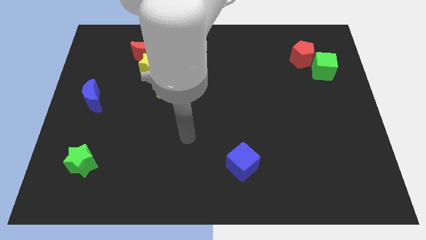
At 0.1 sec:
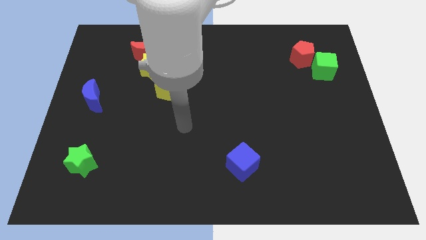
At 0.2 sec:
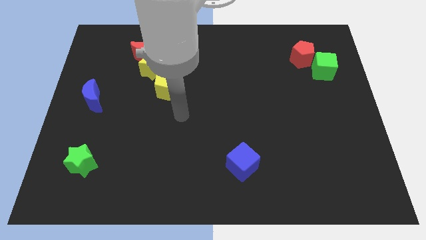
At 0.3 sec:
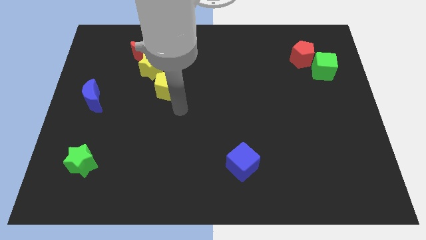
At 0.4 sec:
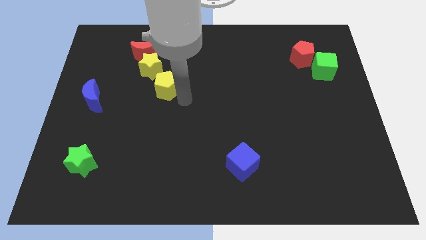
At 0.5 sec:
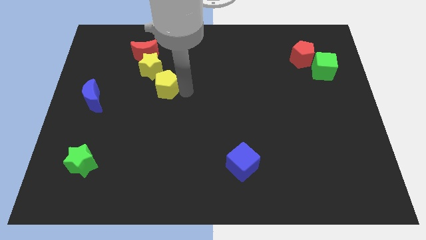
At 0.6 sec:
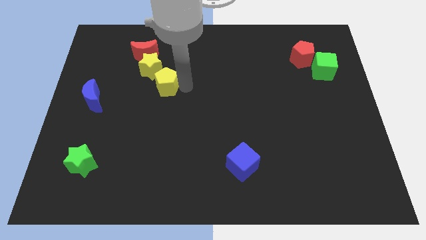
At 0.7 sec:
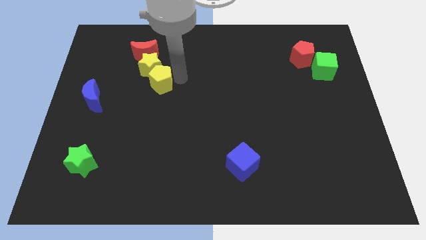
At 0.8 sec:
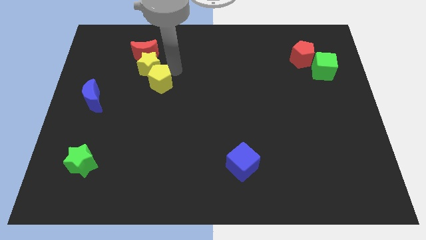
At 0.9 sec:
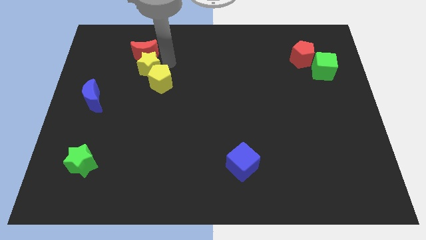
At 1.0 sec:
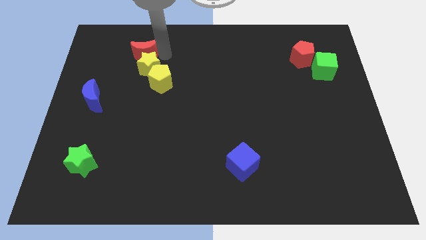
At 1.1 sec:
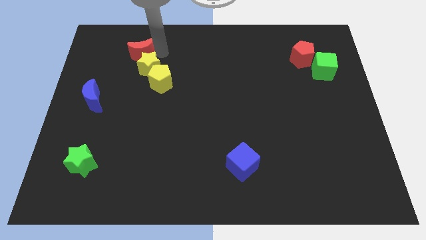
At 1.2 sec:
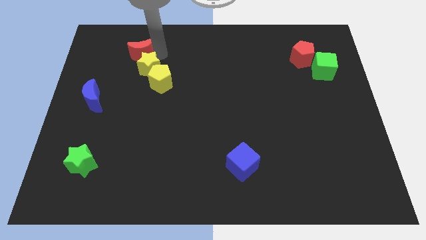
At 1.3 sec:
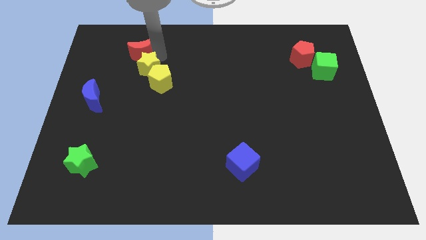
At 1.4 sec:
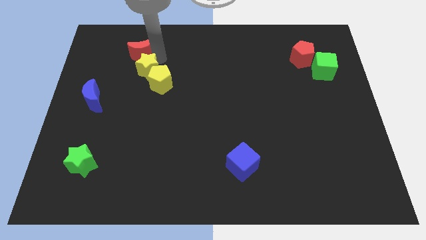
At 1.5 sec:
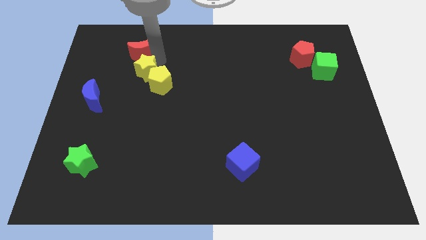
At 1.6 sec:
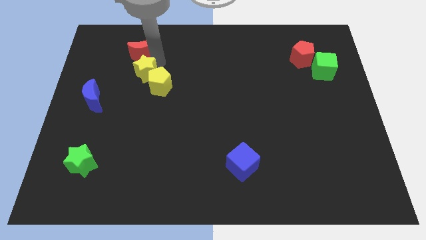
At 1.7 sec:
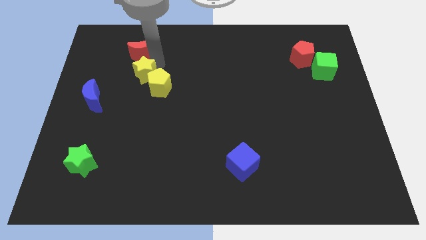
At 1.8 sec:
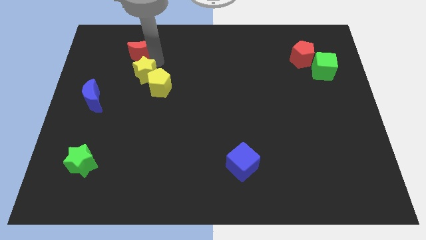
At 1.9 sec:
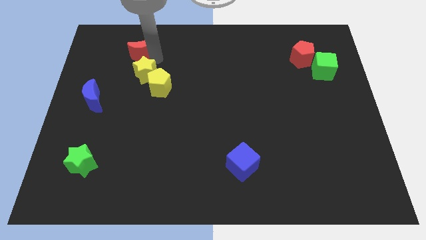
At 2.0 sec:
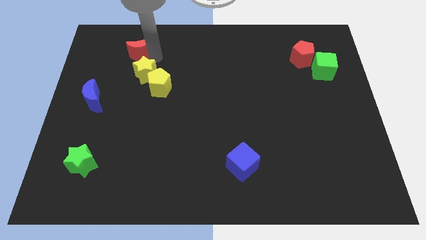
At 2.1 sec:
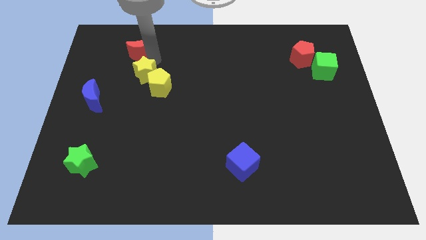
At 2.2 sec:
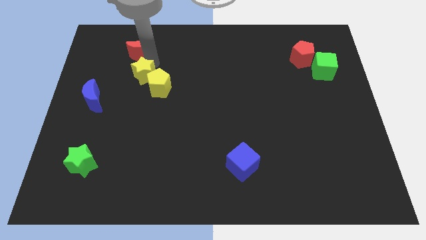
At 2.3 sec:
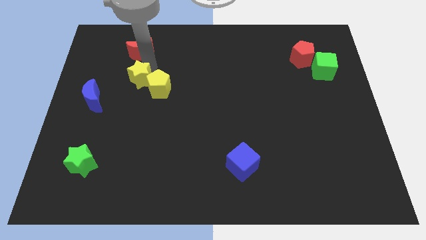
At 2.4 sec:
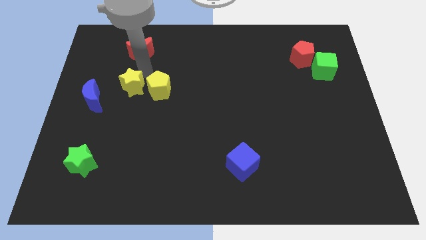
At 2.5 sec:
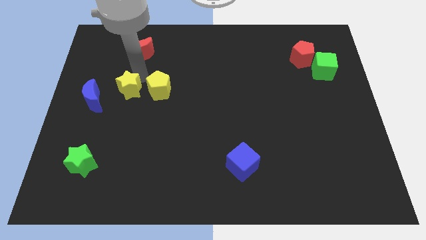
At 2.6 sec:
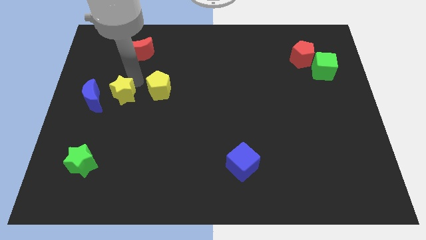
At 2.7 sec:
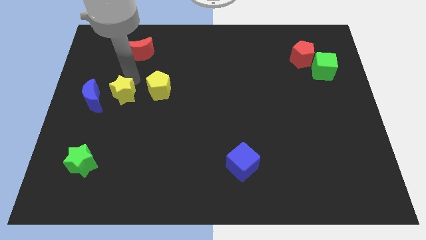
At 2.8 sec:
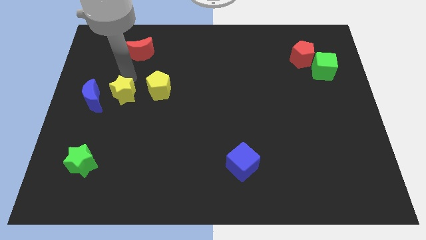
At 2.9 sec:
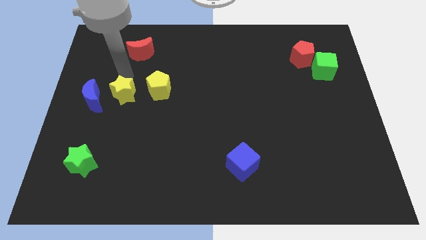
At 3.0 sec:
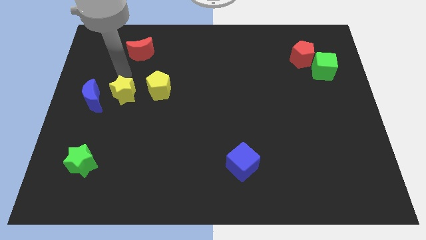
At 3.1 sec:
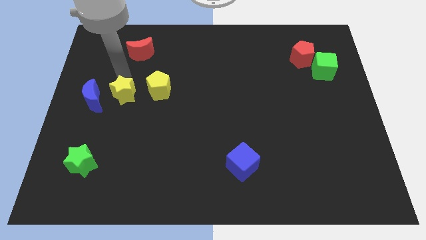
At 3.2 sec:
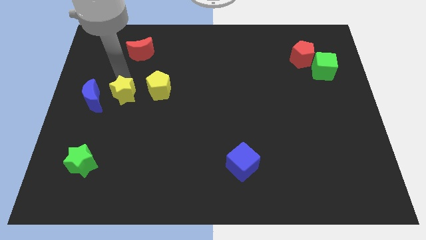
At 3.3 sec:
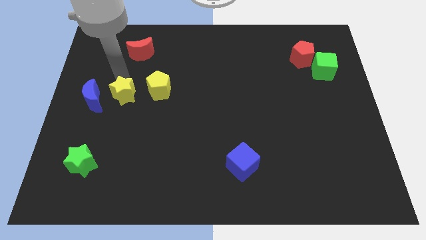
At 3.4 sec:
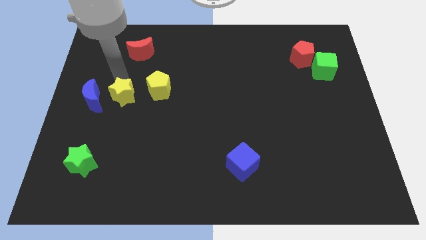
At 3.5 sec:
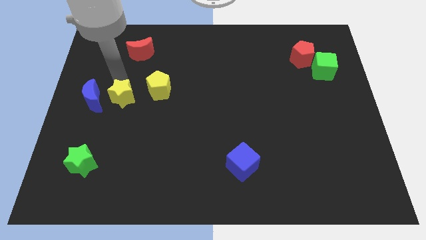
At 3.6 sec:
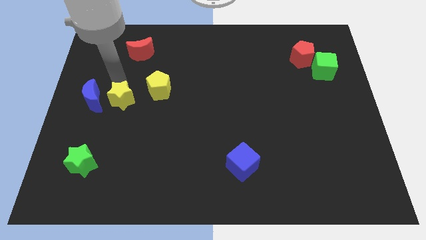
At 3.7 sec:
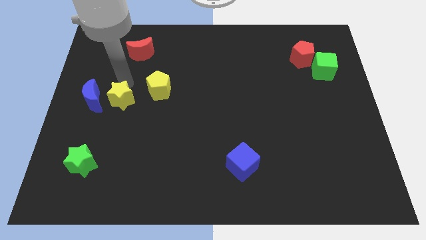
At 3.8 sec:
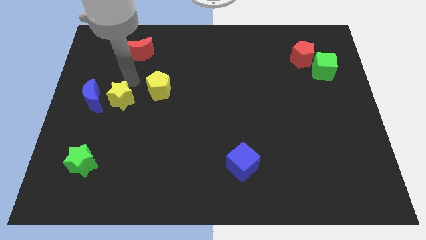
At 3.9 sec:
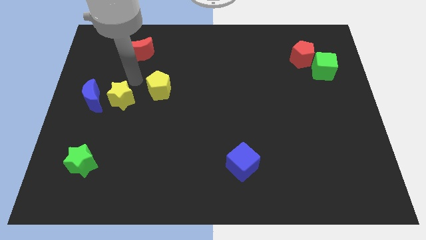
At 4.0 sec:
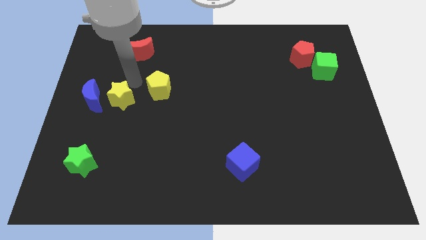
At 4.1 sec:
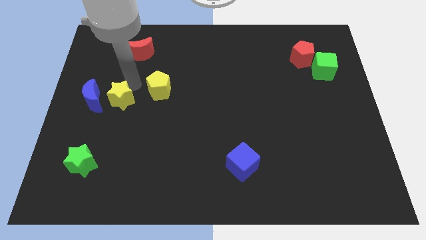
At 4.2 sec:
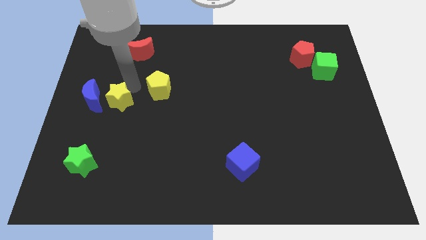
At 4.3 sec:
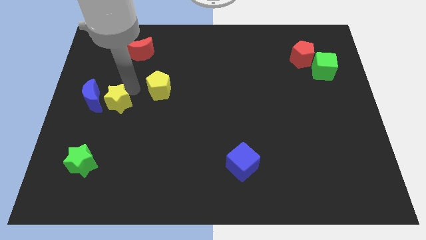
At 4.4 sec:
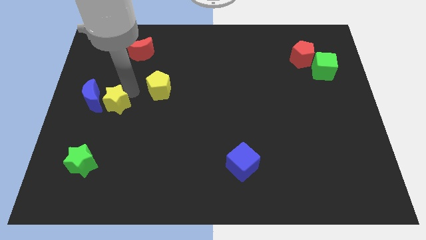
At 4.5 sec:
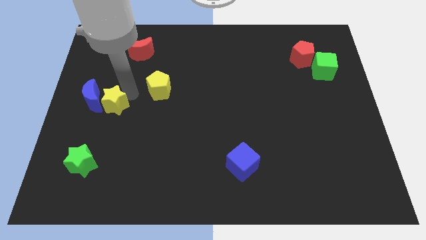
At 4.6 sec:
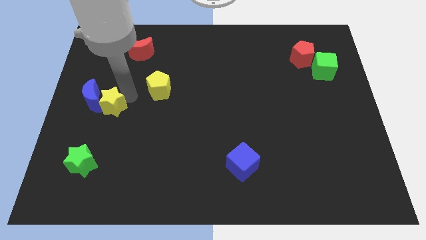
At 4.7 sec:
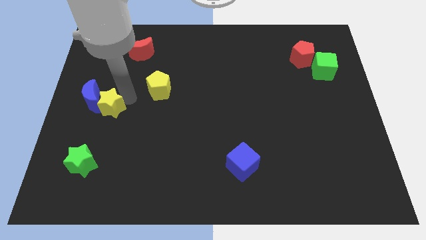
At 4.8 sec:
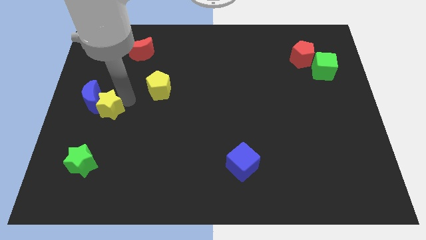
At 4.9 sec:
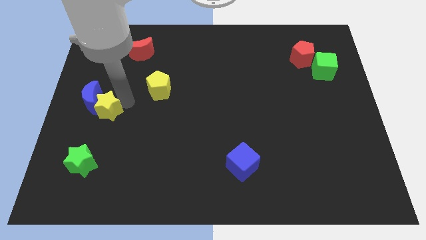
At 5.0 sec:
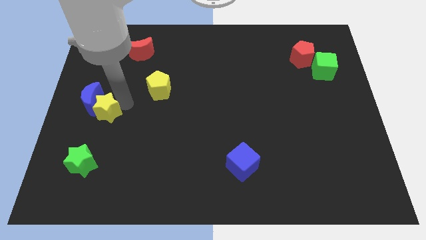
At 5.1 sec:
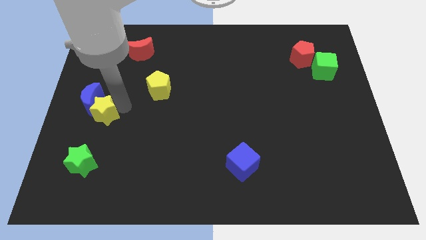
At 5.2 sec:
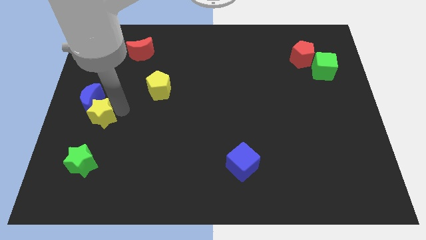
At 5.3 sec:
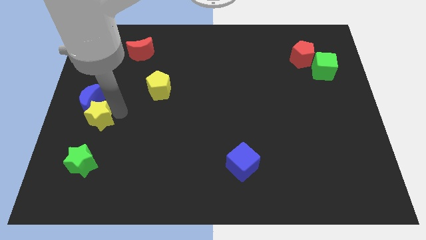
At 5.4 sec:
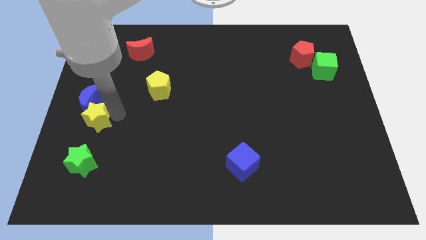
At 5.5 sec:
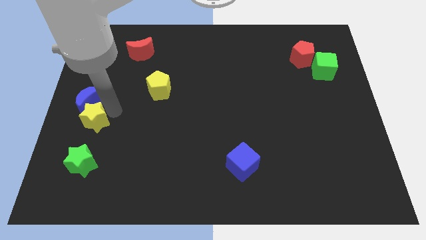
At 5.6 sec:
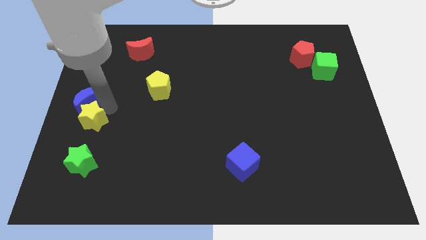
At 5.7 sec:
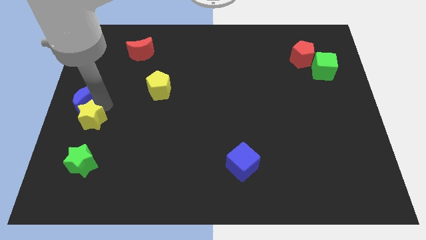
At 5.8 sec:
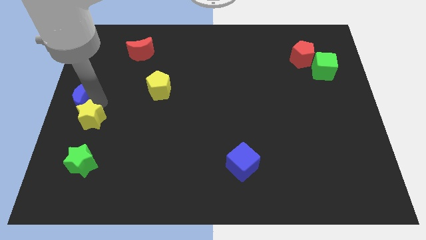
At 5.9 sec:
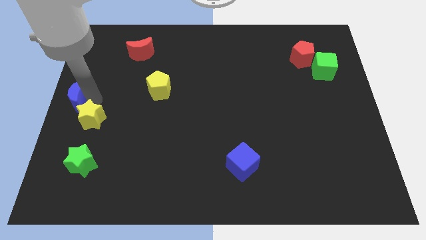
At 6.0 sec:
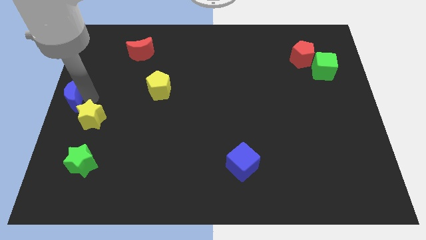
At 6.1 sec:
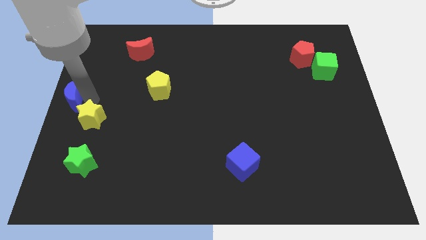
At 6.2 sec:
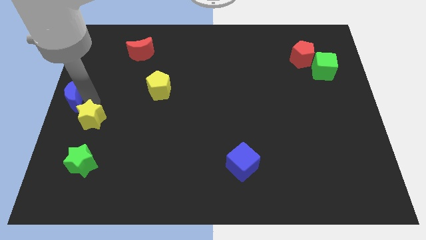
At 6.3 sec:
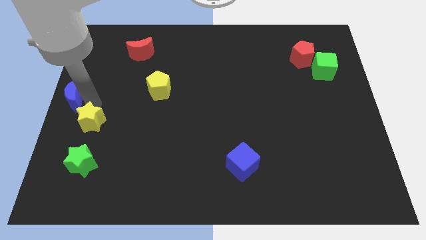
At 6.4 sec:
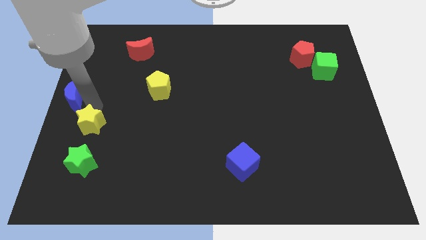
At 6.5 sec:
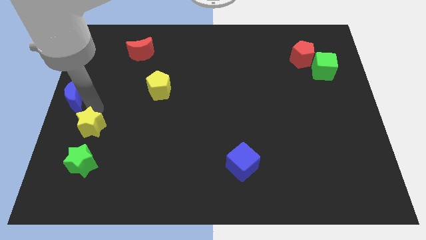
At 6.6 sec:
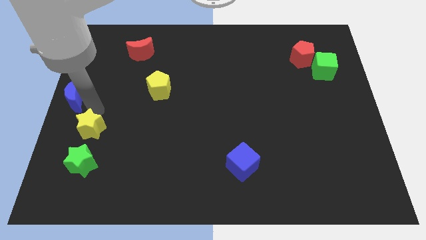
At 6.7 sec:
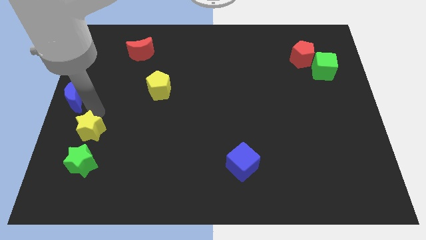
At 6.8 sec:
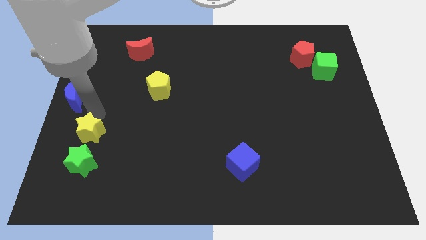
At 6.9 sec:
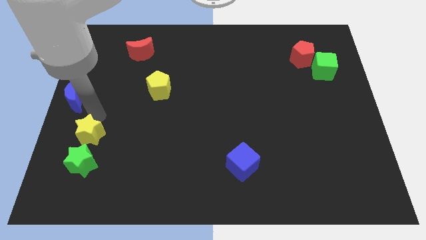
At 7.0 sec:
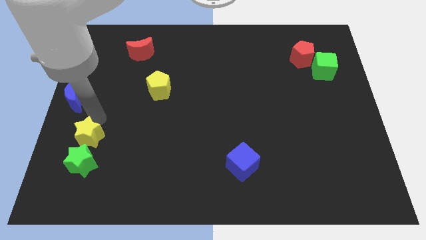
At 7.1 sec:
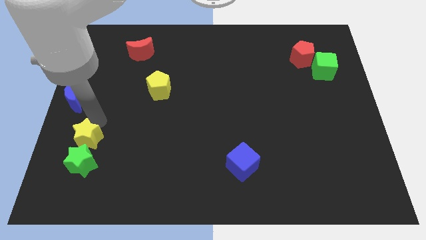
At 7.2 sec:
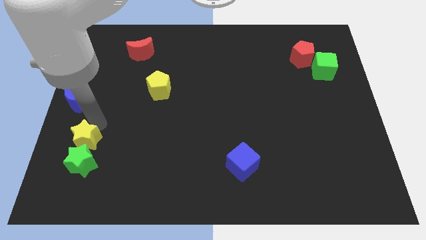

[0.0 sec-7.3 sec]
put the yellow star close to the green star
